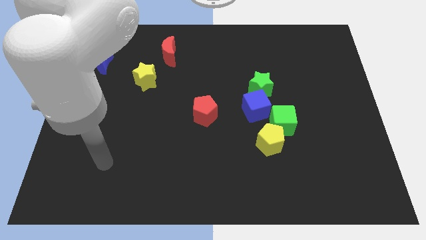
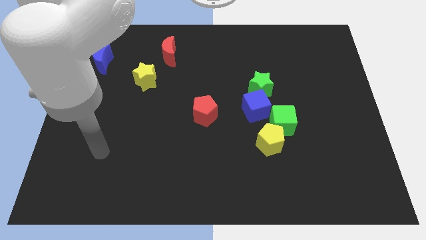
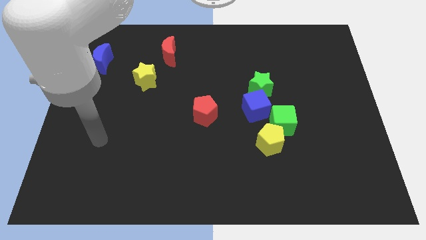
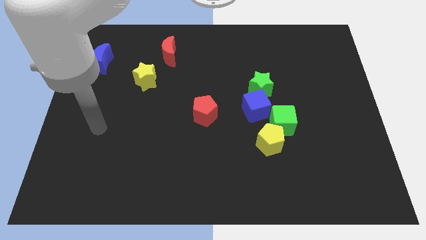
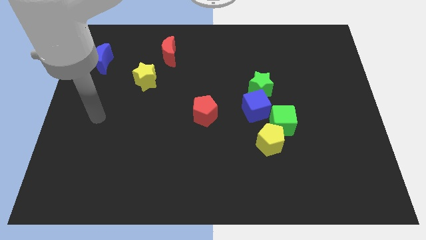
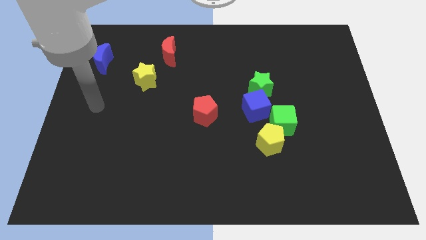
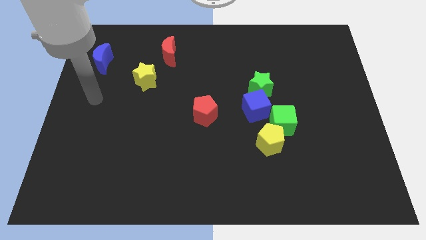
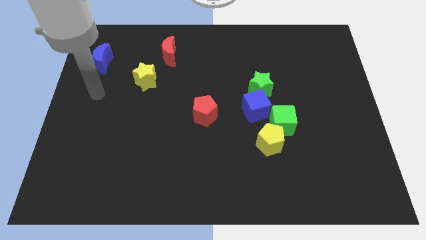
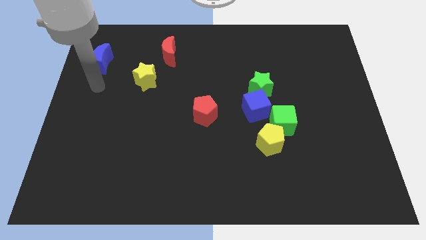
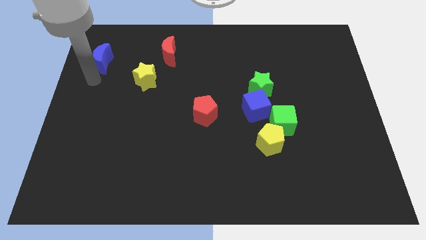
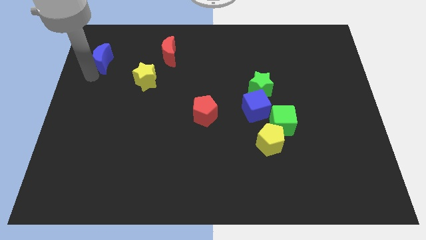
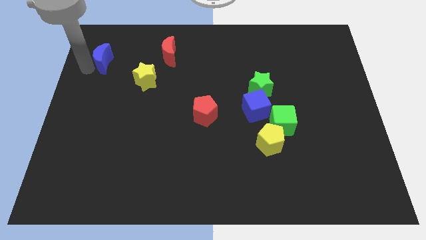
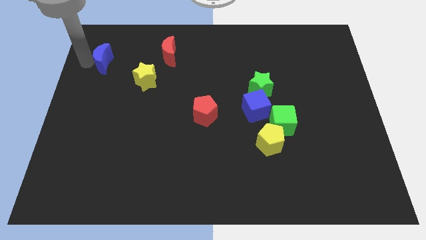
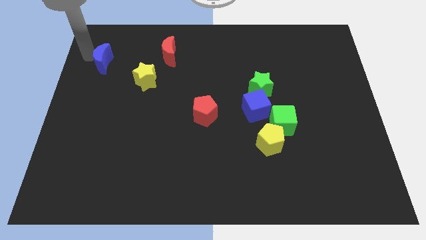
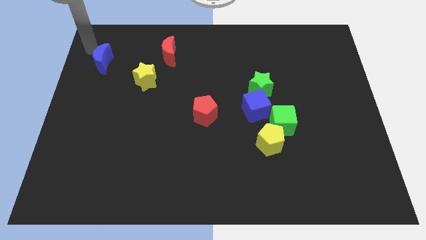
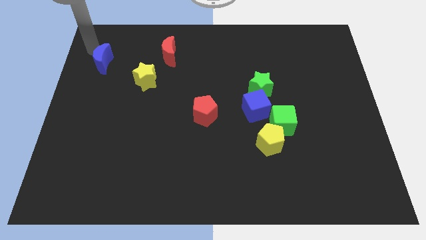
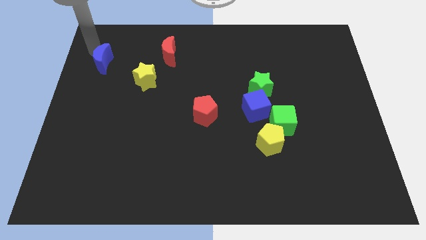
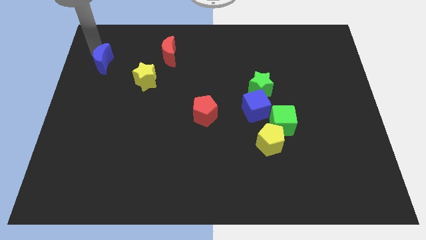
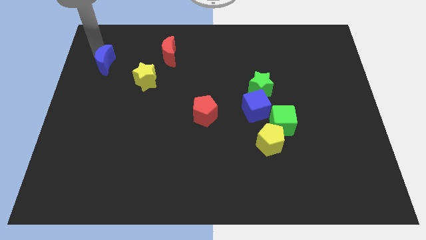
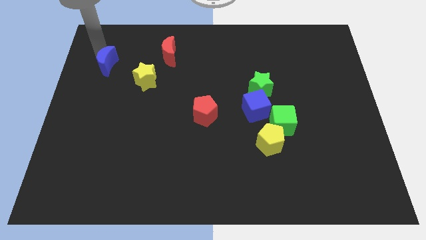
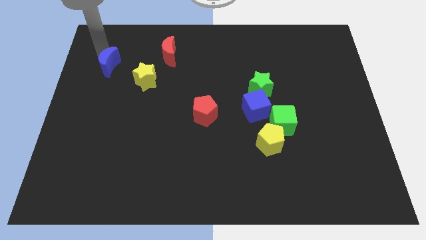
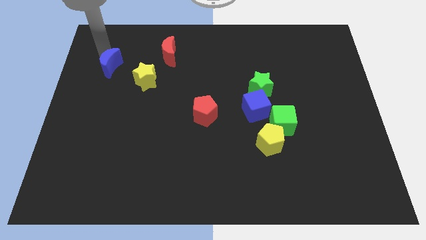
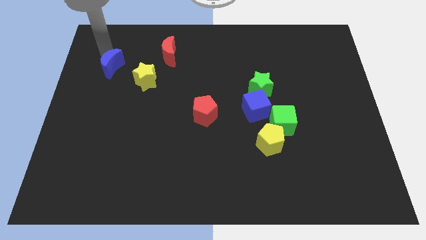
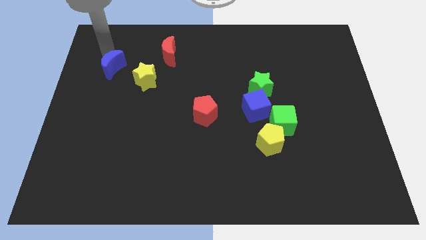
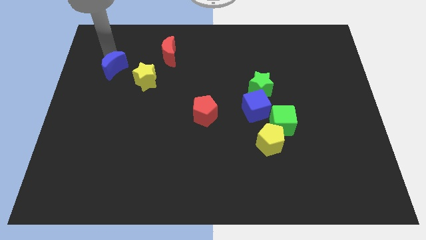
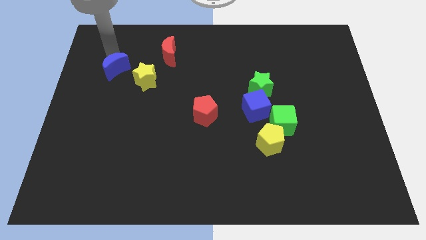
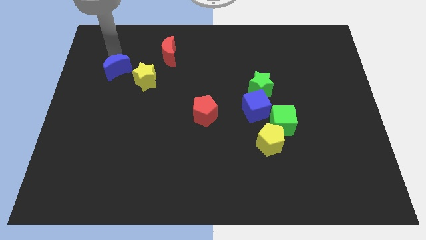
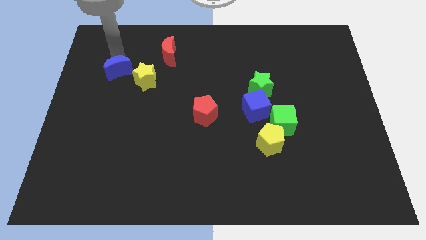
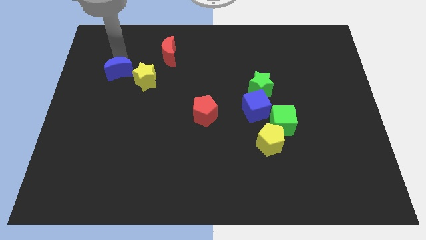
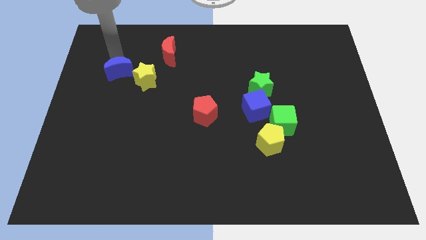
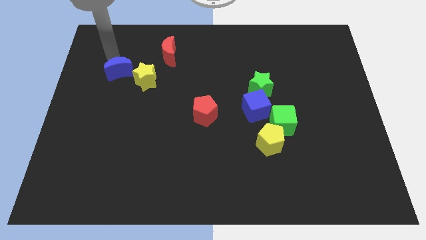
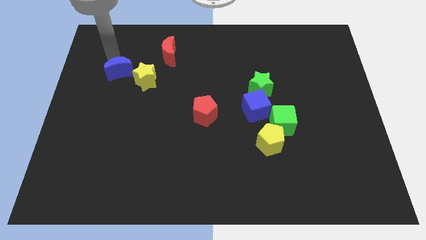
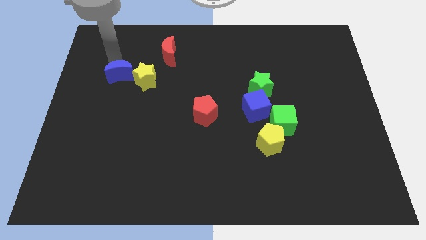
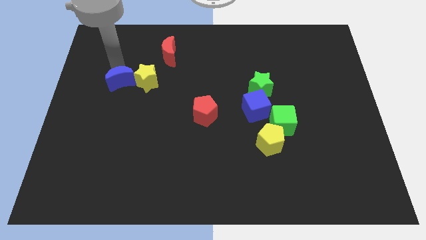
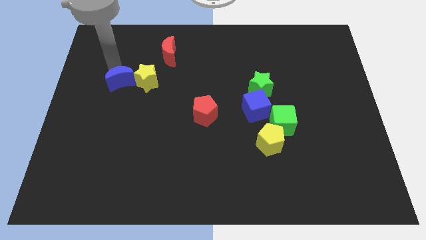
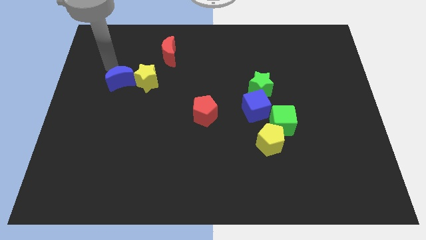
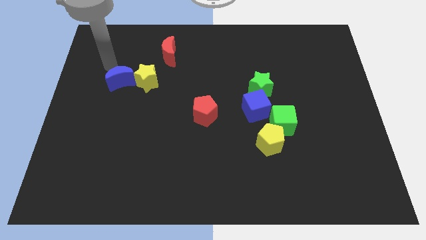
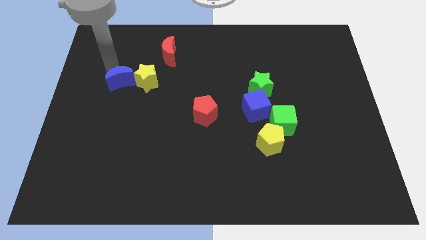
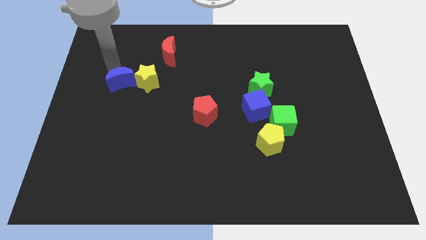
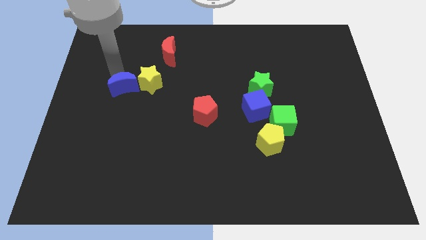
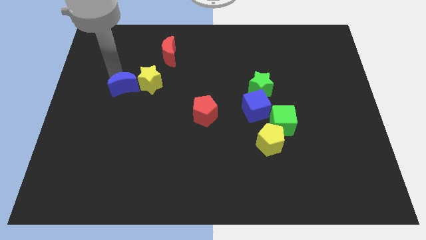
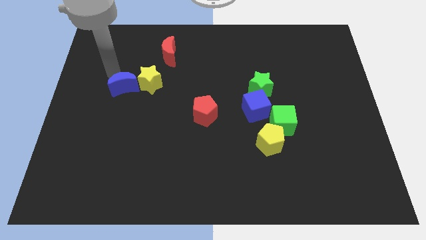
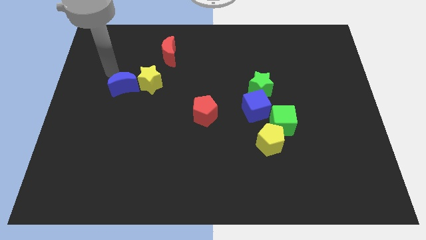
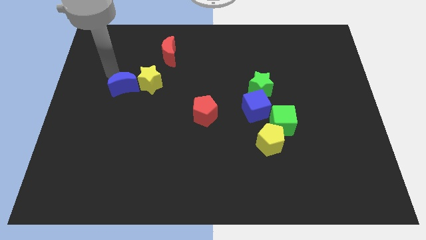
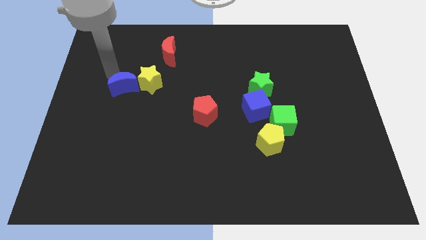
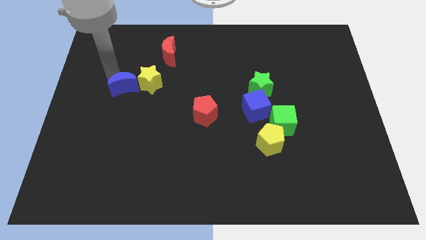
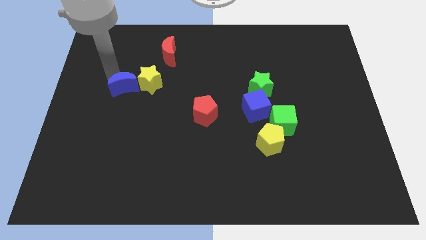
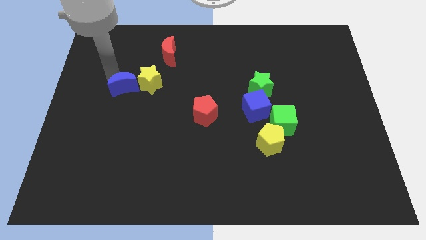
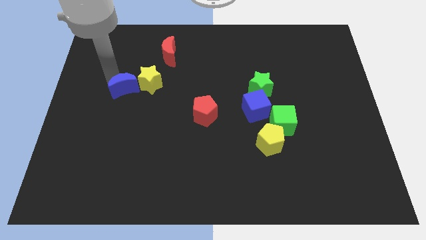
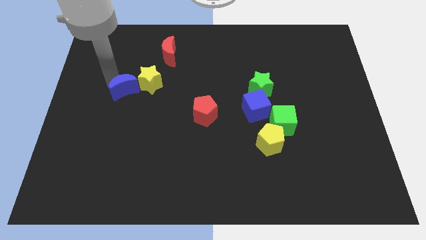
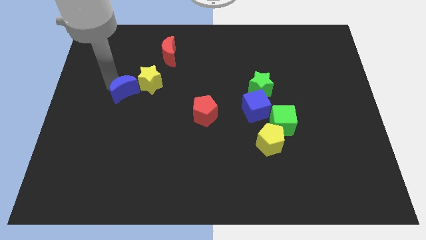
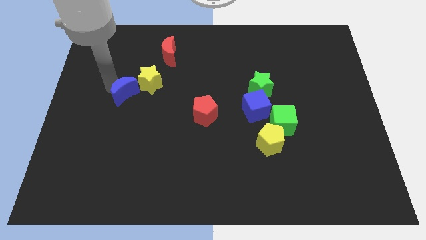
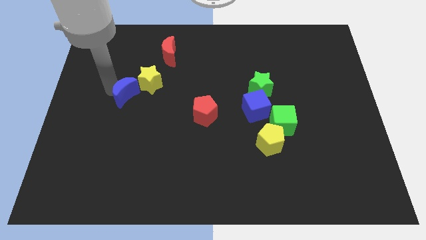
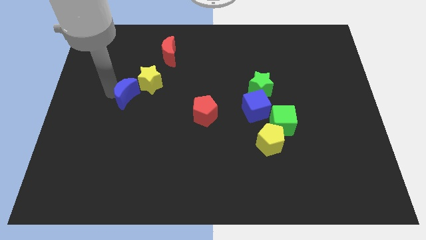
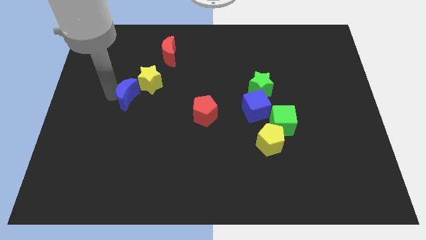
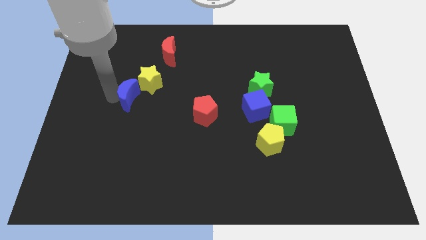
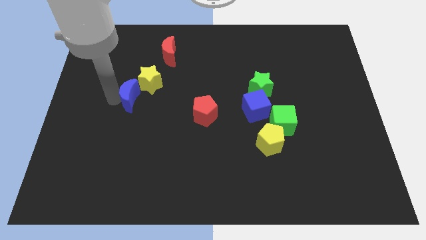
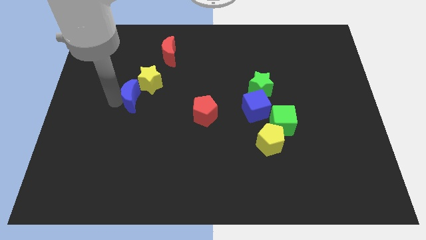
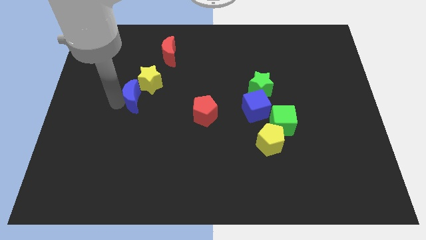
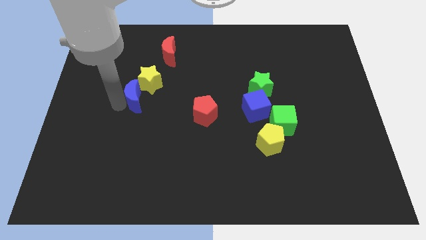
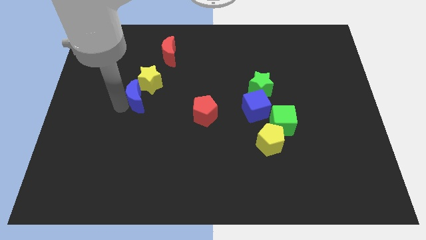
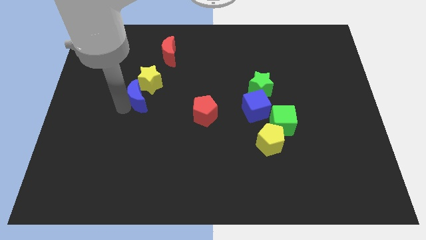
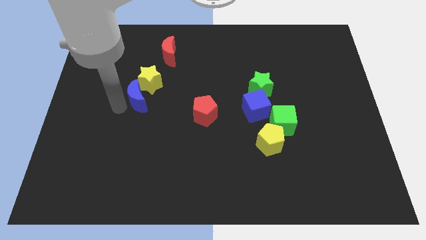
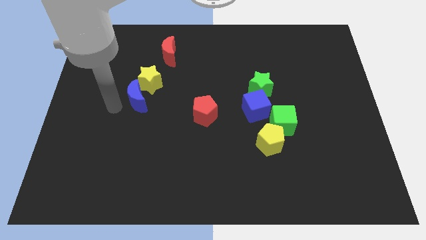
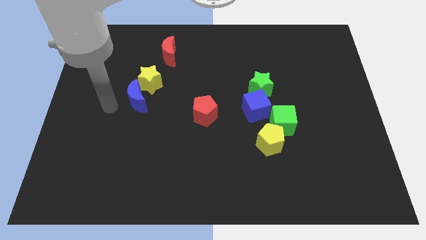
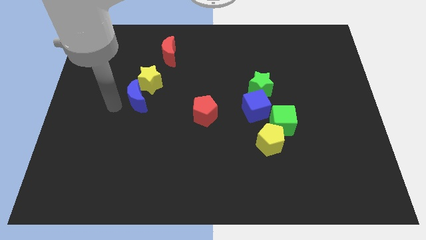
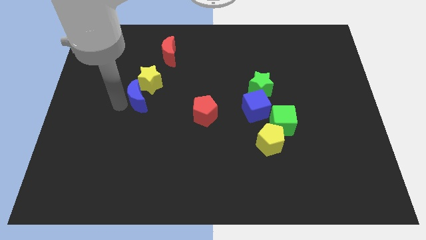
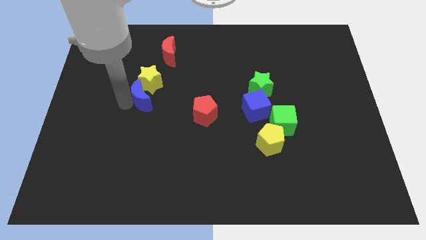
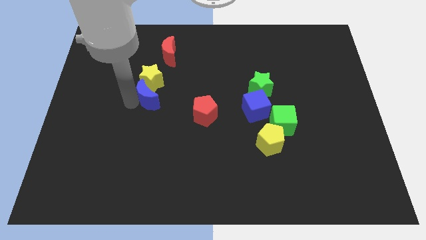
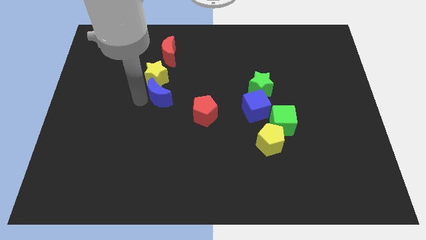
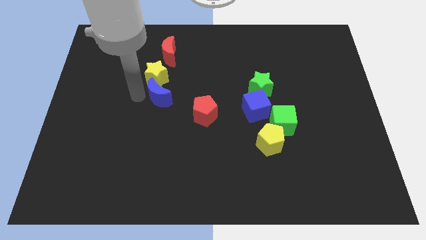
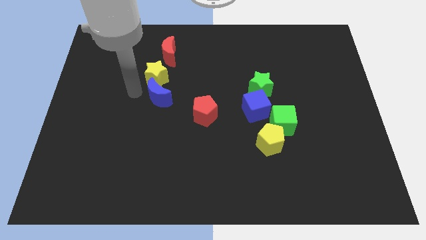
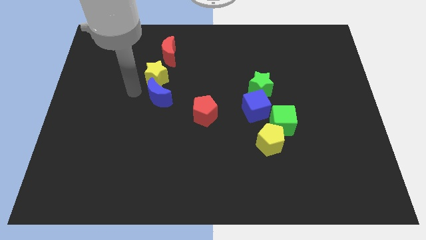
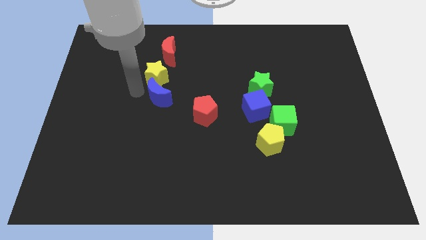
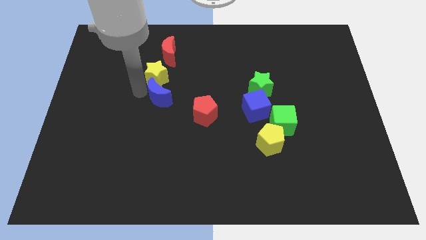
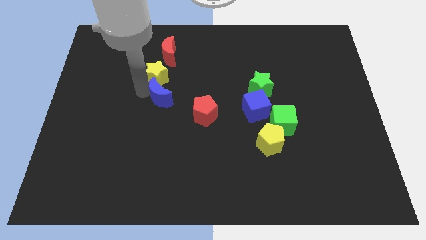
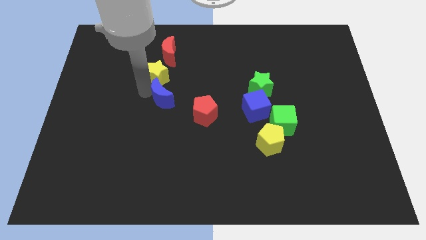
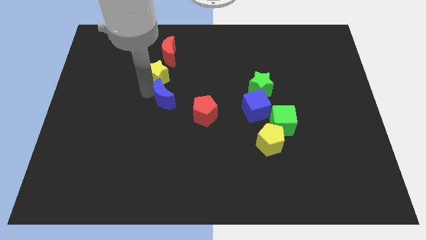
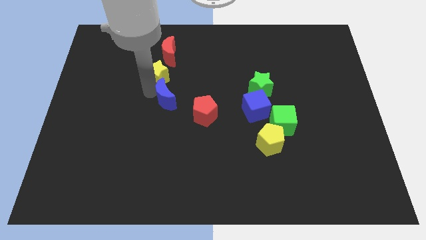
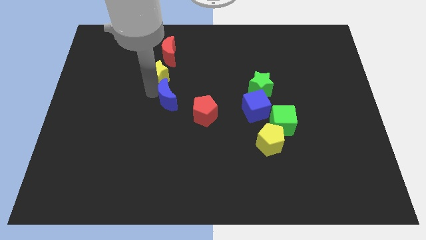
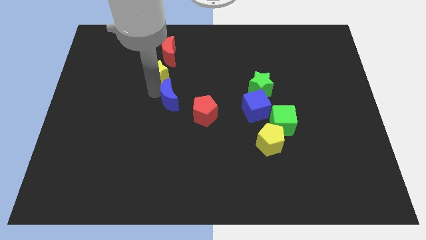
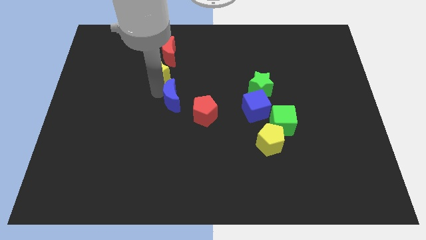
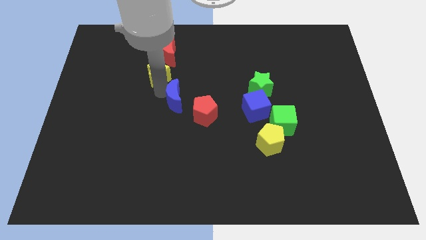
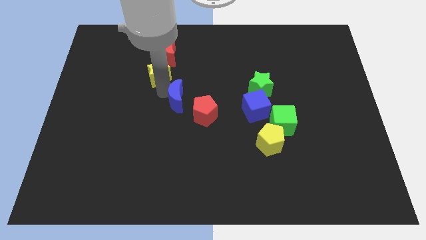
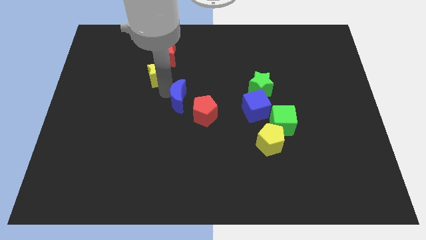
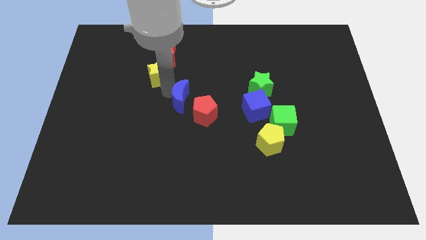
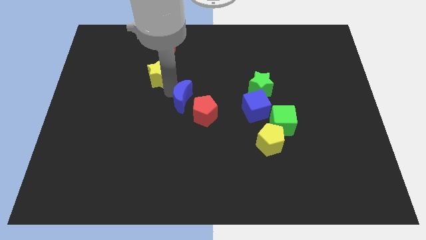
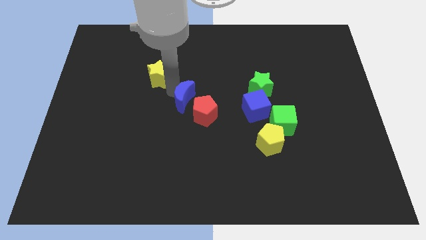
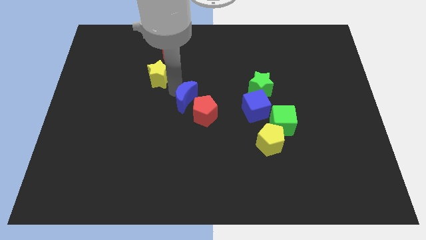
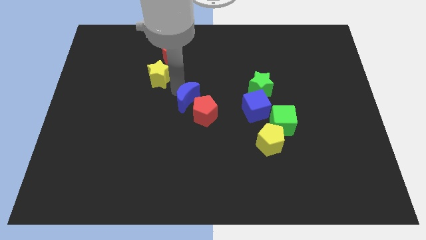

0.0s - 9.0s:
move the blue moon close to the red pentagon
